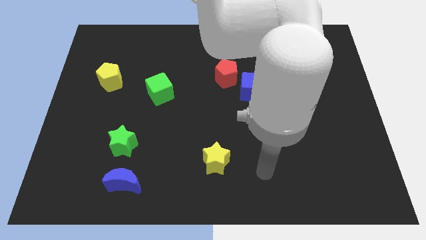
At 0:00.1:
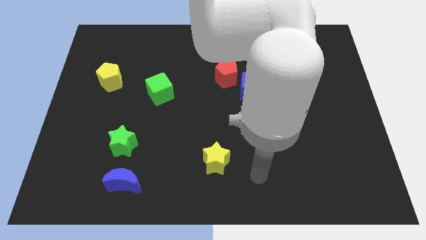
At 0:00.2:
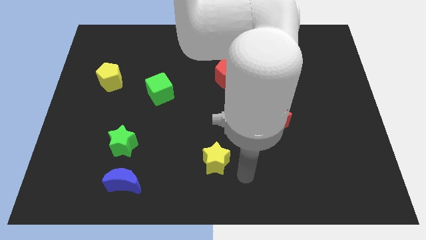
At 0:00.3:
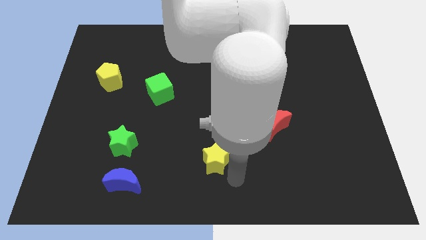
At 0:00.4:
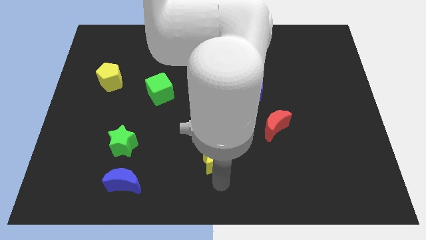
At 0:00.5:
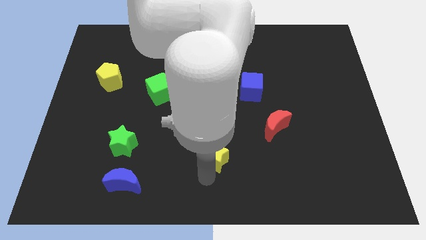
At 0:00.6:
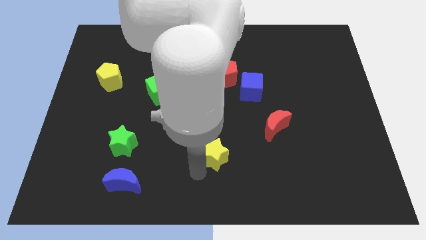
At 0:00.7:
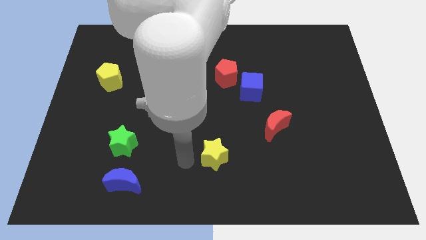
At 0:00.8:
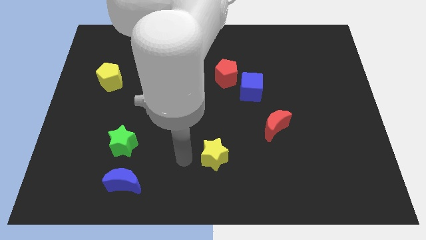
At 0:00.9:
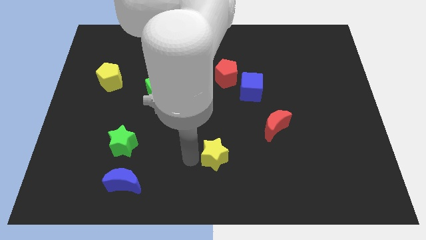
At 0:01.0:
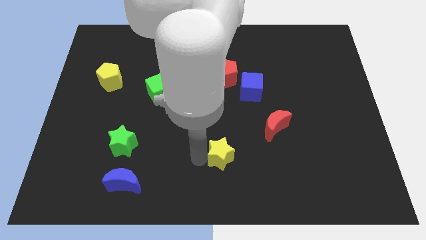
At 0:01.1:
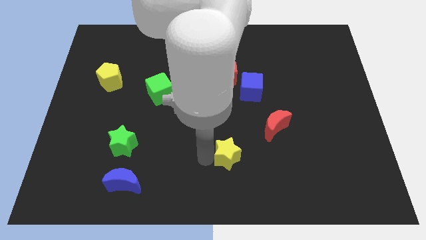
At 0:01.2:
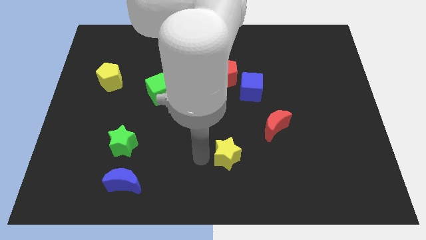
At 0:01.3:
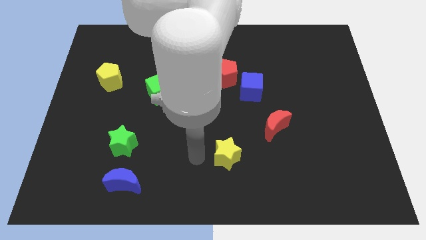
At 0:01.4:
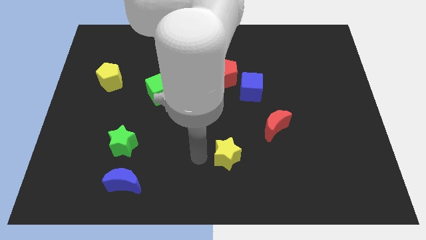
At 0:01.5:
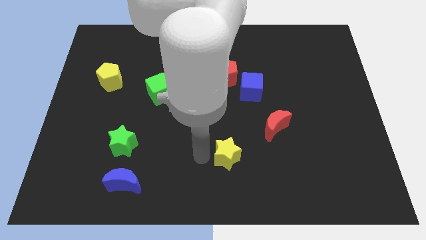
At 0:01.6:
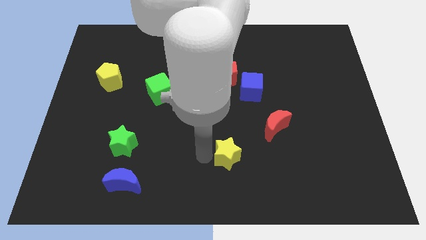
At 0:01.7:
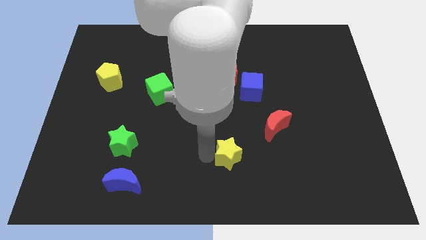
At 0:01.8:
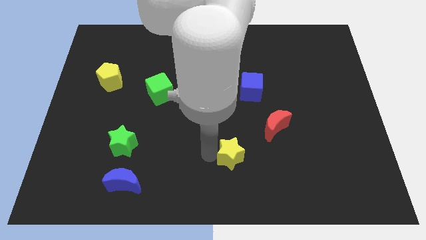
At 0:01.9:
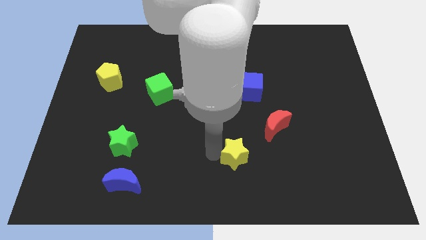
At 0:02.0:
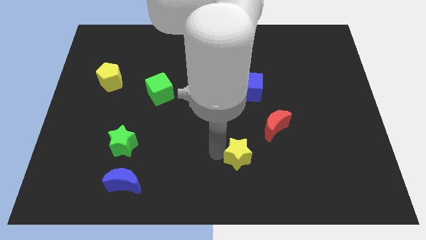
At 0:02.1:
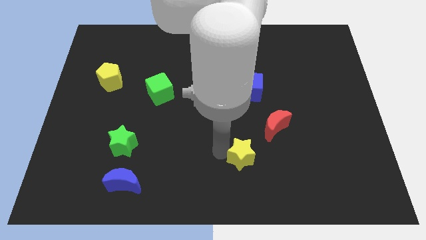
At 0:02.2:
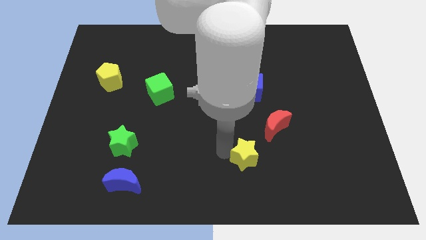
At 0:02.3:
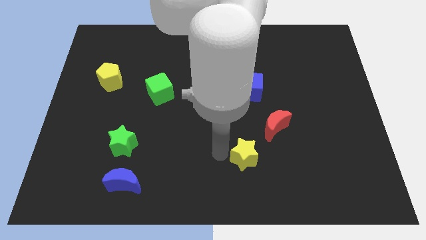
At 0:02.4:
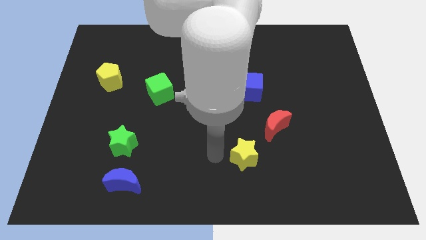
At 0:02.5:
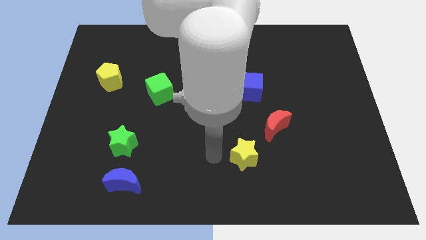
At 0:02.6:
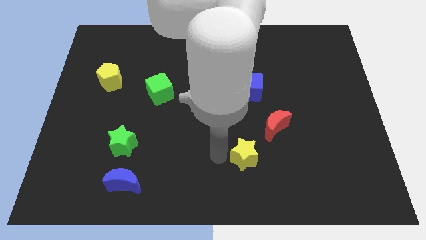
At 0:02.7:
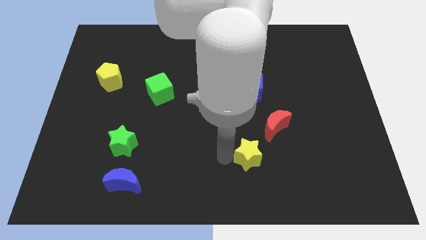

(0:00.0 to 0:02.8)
slightly slide the yellow star to the right

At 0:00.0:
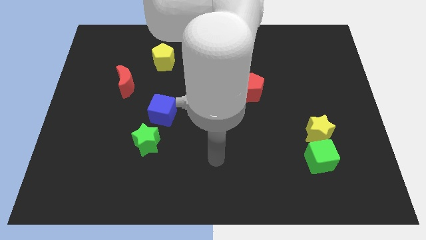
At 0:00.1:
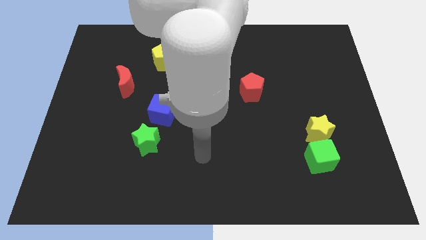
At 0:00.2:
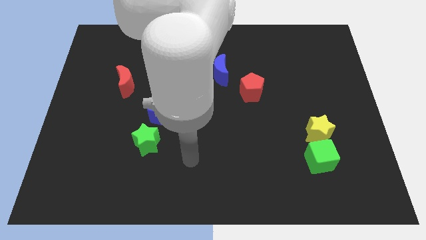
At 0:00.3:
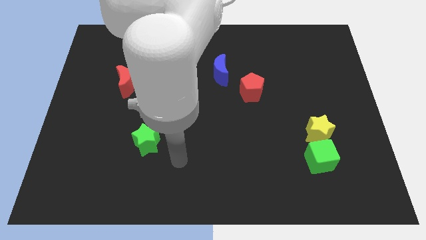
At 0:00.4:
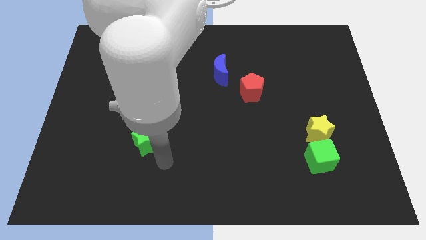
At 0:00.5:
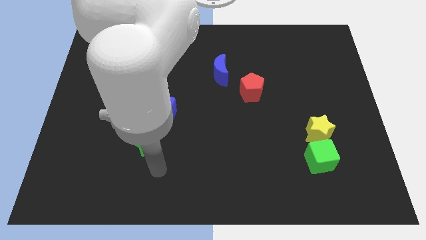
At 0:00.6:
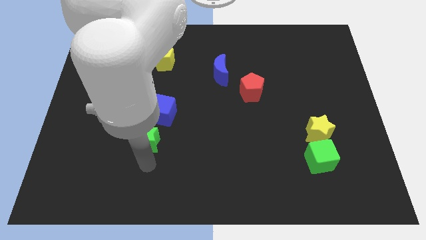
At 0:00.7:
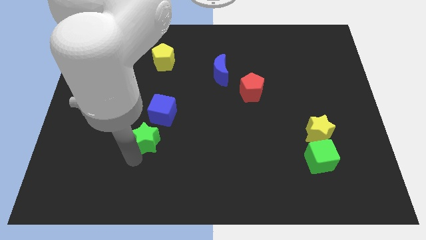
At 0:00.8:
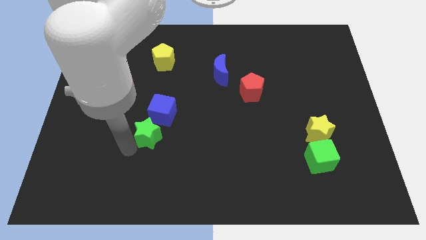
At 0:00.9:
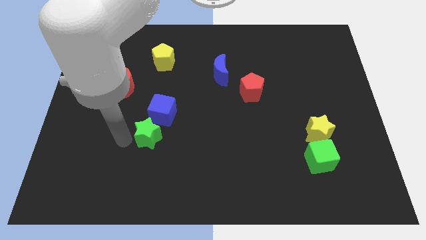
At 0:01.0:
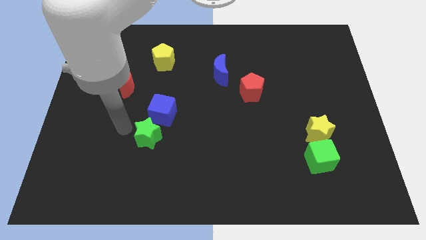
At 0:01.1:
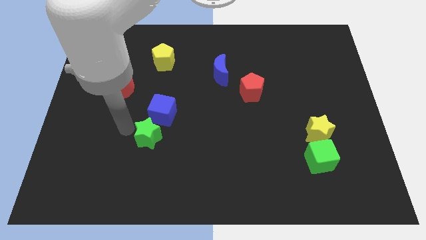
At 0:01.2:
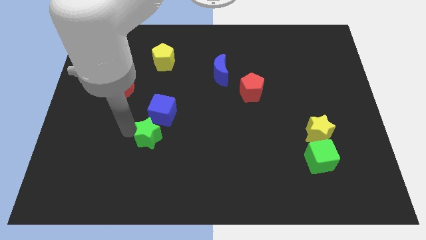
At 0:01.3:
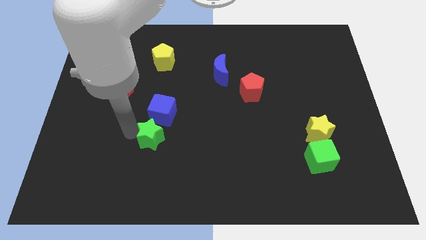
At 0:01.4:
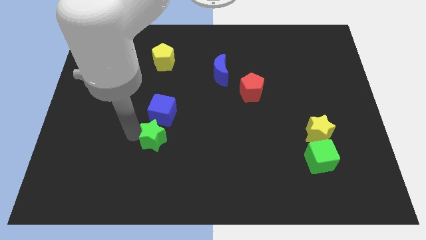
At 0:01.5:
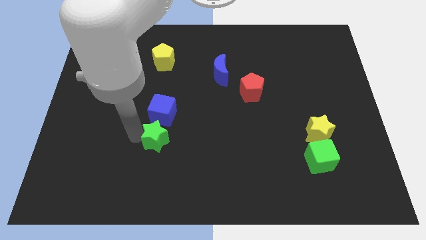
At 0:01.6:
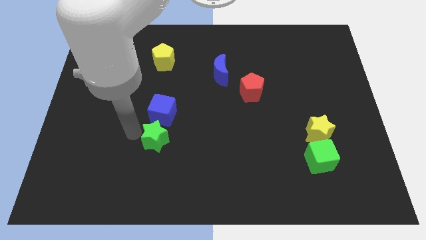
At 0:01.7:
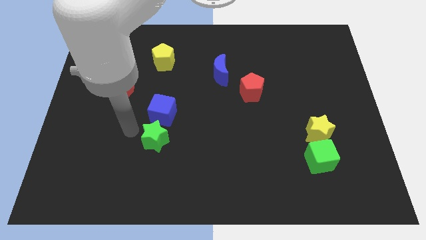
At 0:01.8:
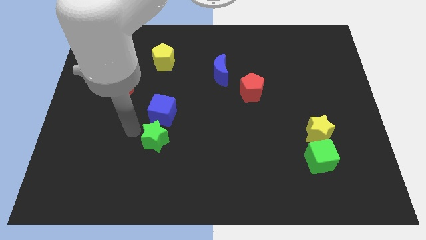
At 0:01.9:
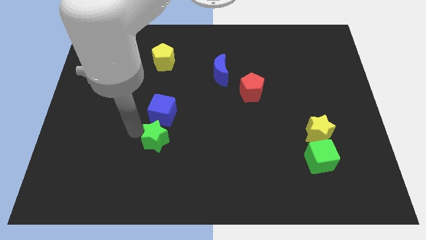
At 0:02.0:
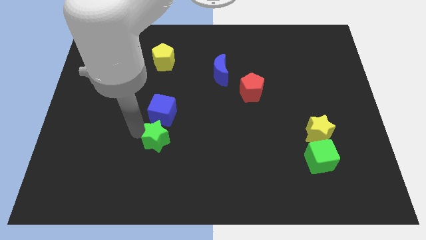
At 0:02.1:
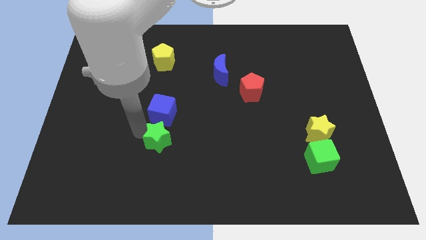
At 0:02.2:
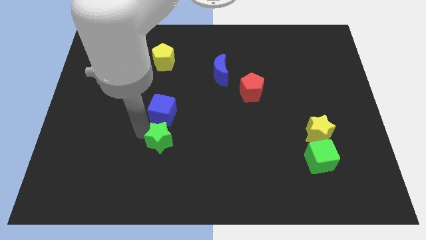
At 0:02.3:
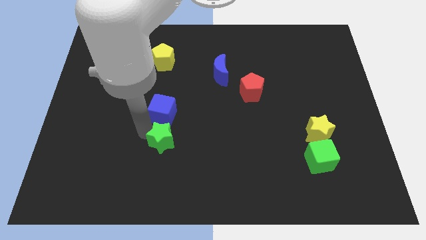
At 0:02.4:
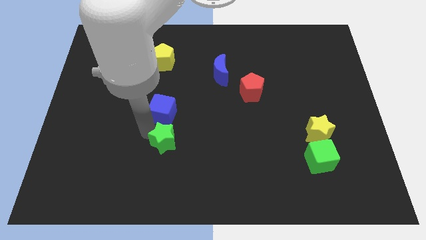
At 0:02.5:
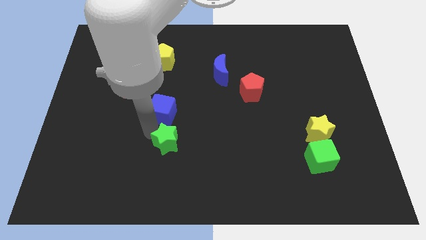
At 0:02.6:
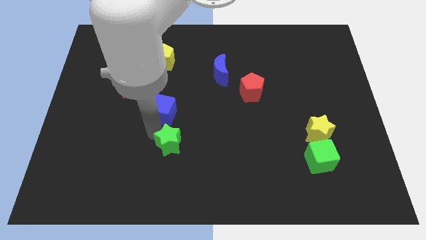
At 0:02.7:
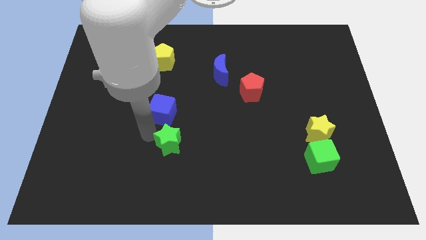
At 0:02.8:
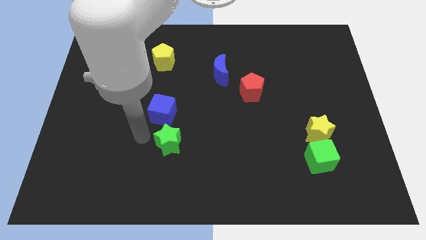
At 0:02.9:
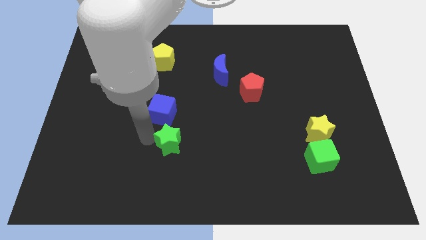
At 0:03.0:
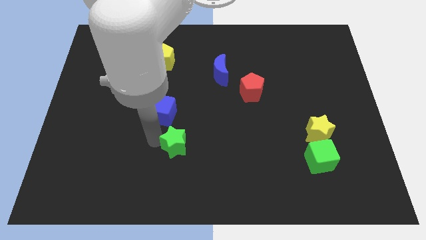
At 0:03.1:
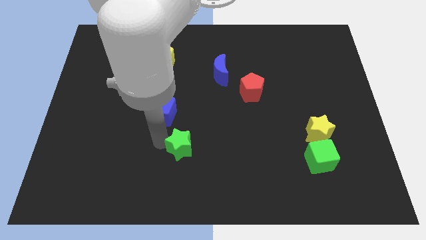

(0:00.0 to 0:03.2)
slide the green star to the right a bit

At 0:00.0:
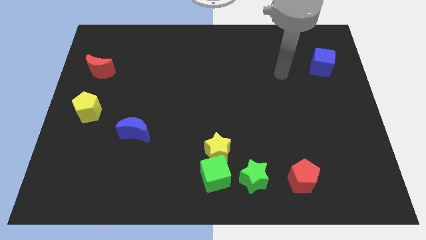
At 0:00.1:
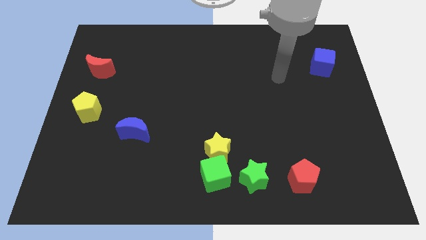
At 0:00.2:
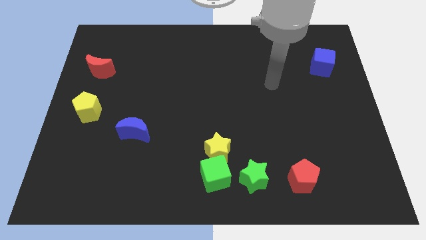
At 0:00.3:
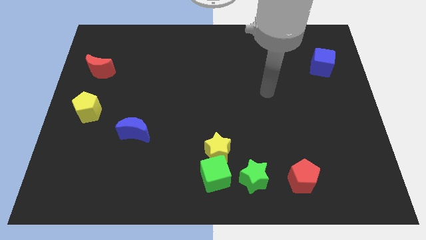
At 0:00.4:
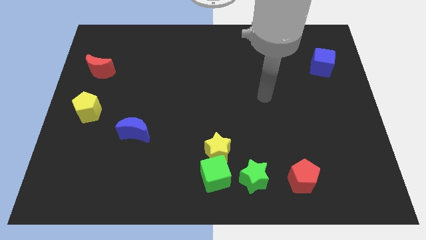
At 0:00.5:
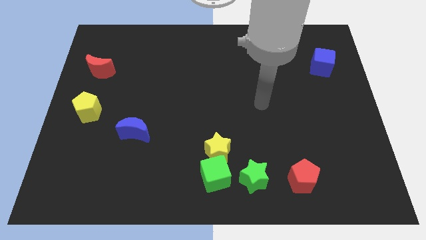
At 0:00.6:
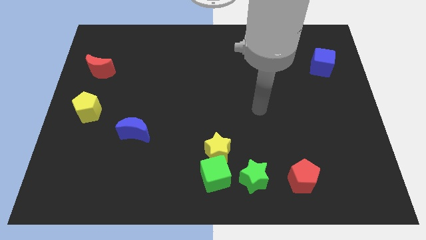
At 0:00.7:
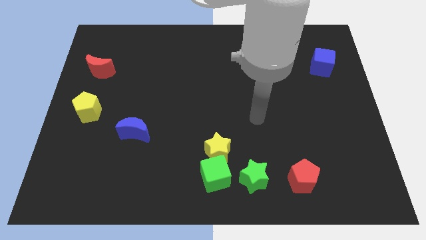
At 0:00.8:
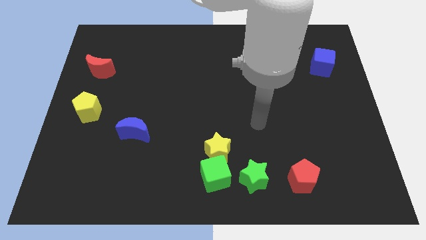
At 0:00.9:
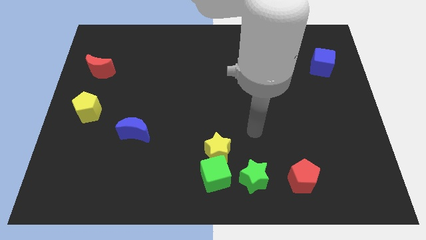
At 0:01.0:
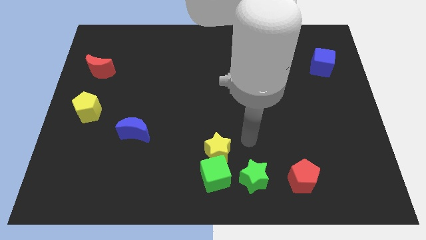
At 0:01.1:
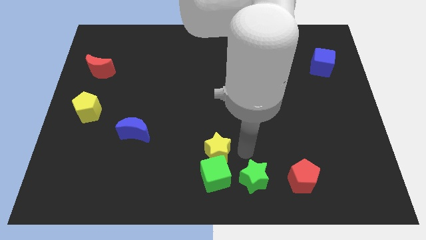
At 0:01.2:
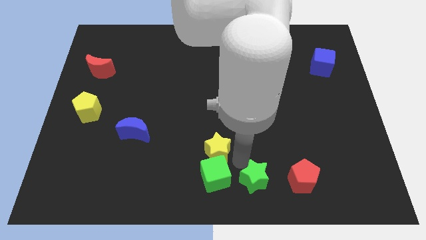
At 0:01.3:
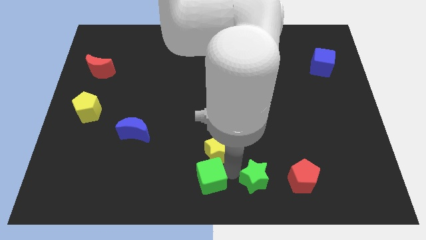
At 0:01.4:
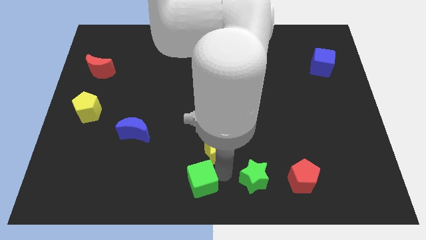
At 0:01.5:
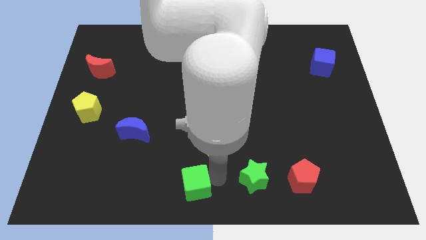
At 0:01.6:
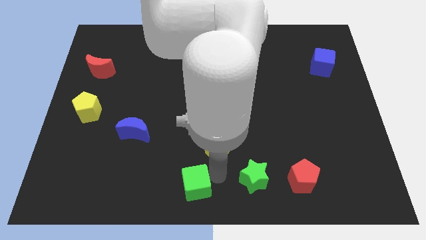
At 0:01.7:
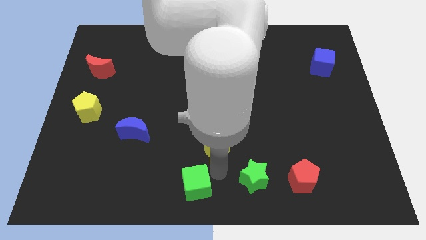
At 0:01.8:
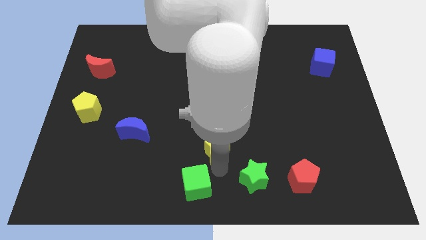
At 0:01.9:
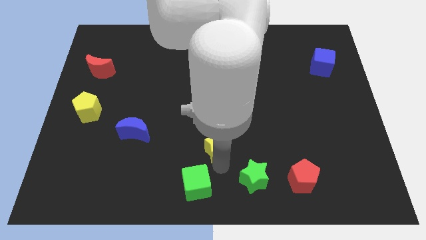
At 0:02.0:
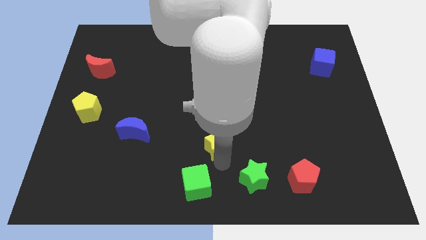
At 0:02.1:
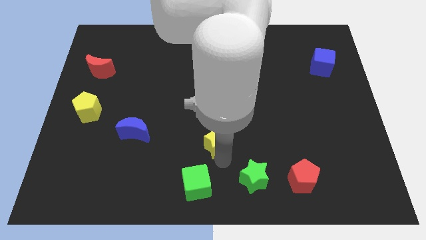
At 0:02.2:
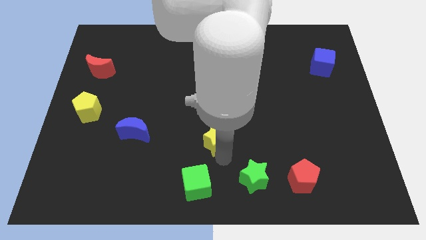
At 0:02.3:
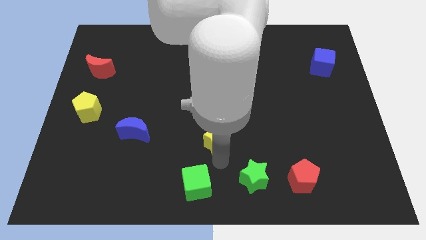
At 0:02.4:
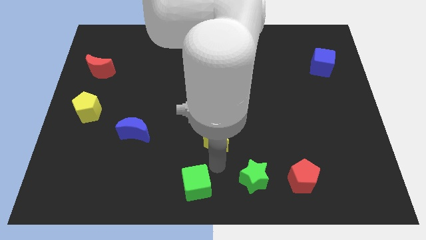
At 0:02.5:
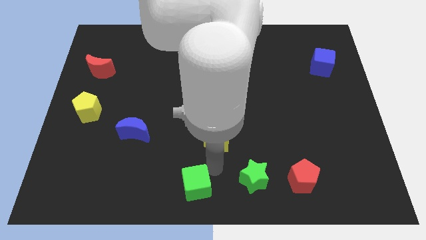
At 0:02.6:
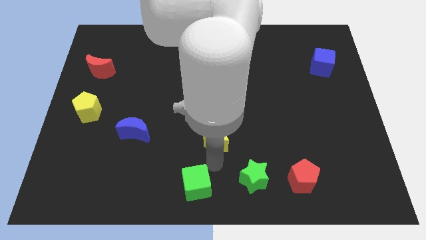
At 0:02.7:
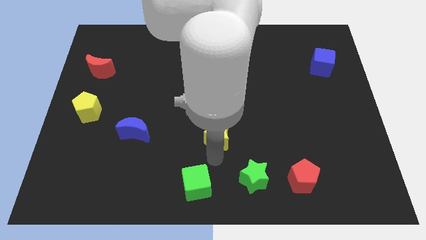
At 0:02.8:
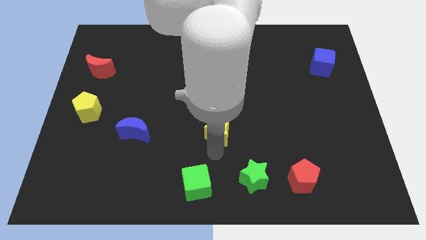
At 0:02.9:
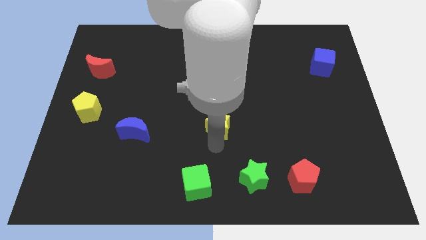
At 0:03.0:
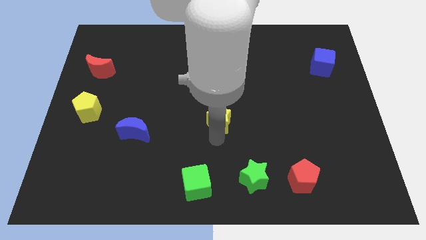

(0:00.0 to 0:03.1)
push the yellow star slightly up
